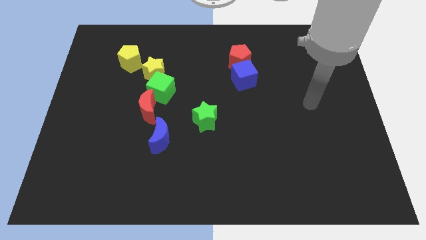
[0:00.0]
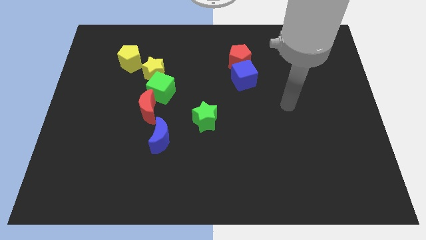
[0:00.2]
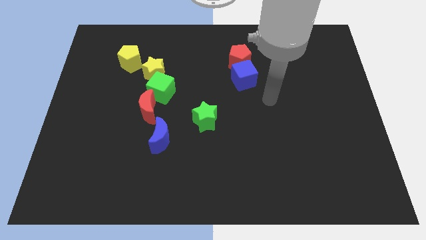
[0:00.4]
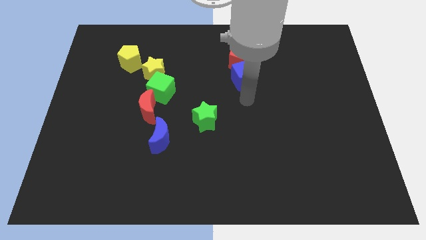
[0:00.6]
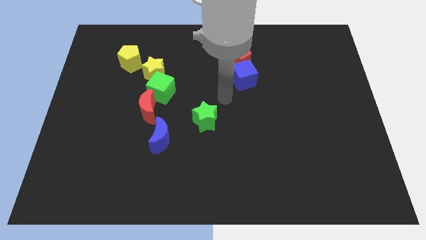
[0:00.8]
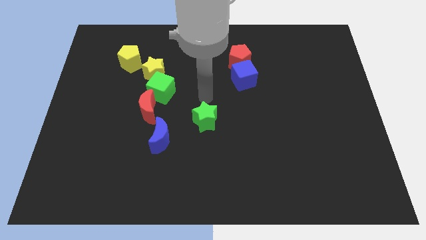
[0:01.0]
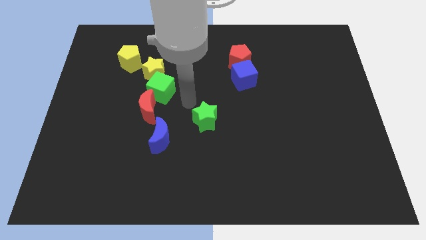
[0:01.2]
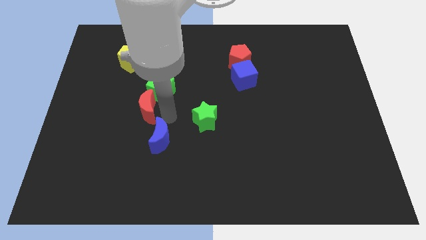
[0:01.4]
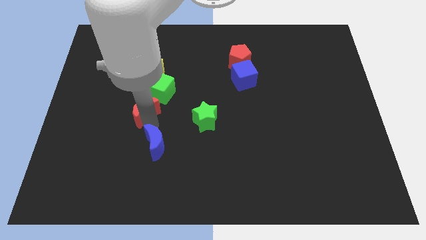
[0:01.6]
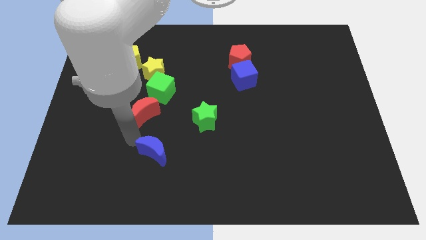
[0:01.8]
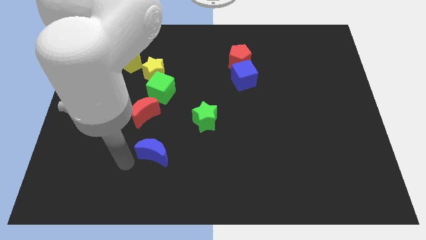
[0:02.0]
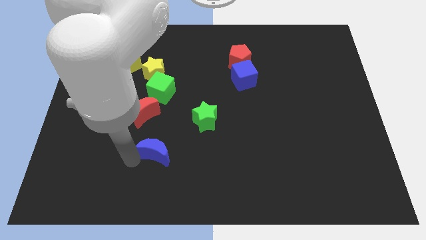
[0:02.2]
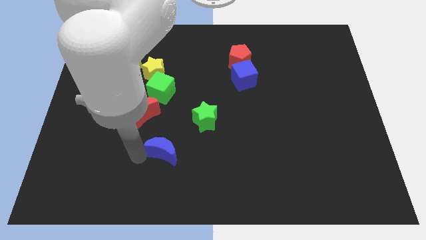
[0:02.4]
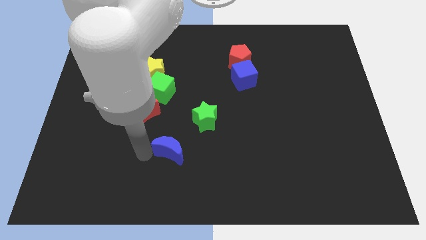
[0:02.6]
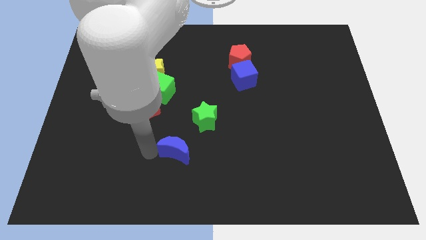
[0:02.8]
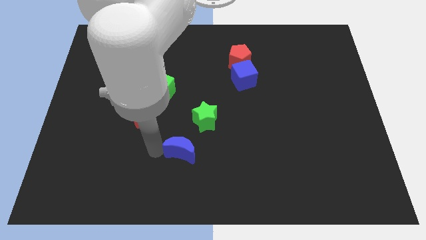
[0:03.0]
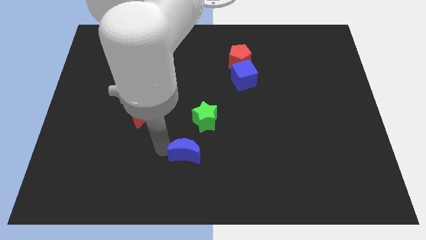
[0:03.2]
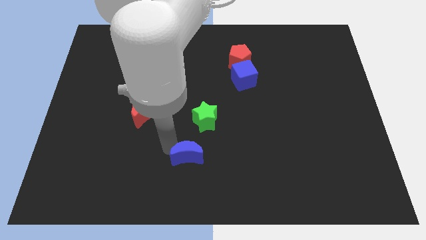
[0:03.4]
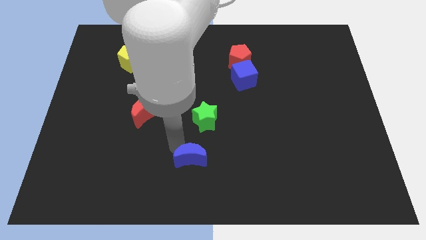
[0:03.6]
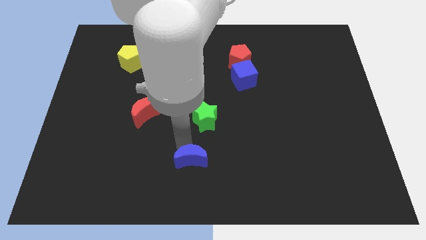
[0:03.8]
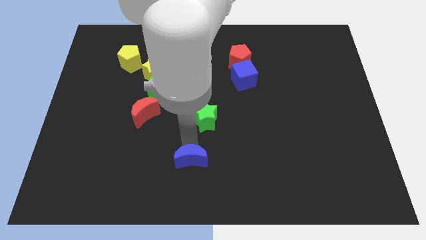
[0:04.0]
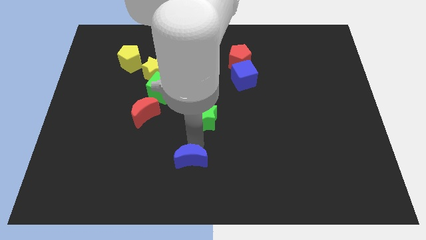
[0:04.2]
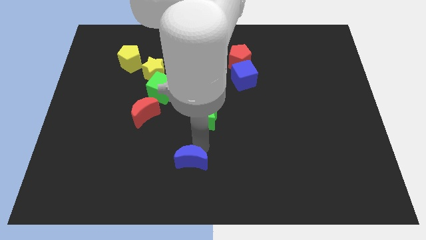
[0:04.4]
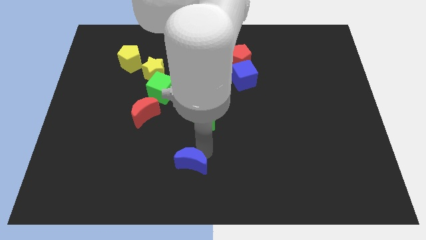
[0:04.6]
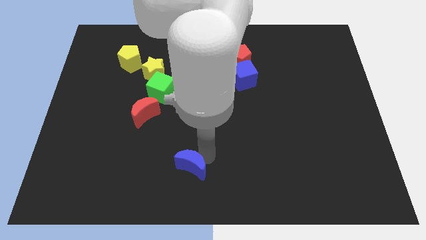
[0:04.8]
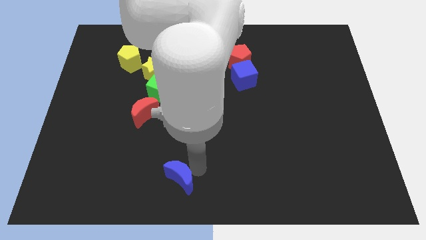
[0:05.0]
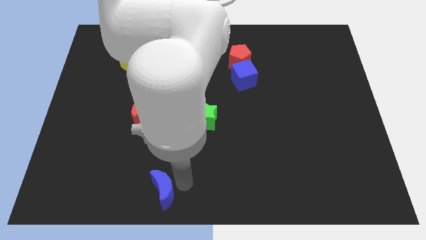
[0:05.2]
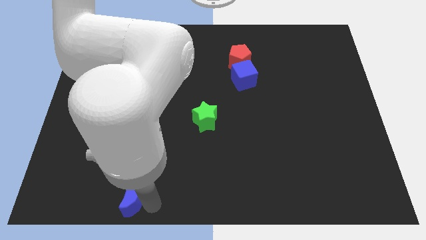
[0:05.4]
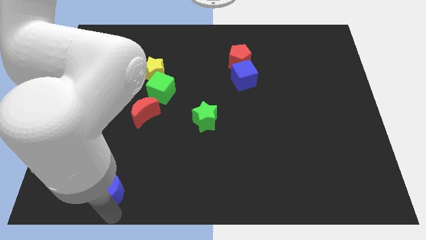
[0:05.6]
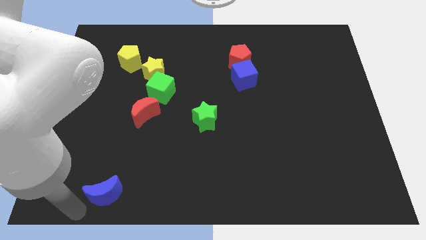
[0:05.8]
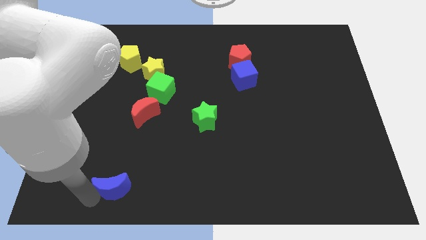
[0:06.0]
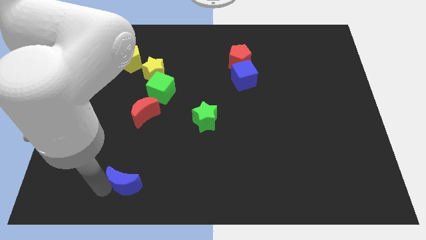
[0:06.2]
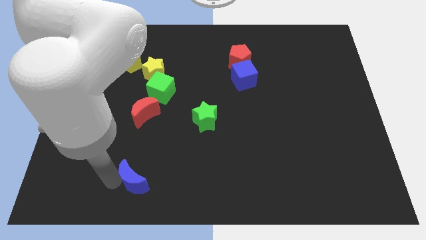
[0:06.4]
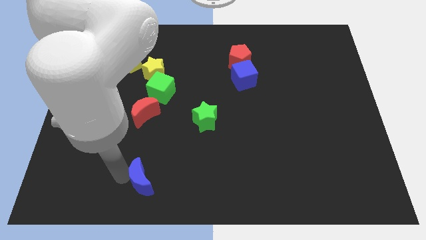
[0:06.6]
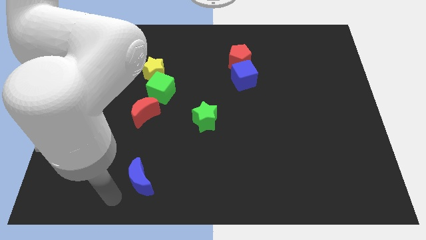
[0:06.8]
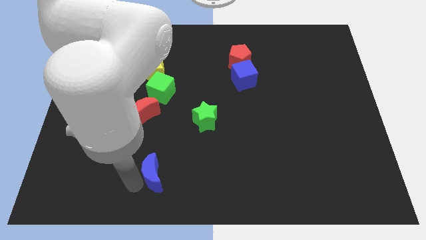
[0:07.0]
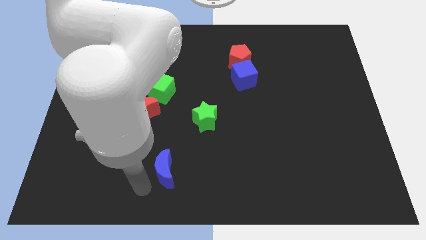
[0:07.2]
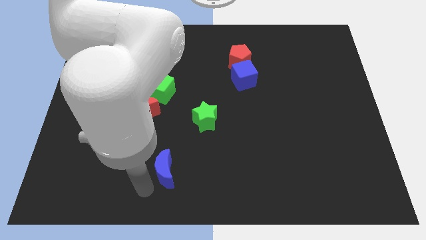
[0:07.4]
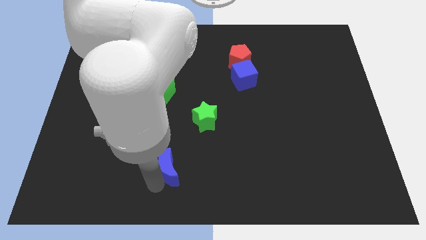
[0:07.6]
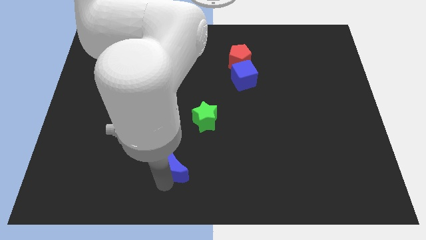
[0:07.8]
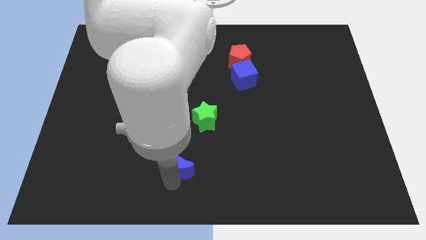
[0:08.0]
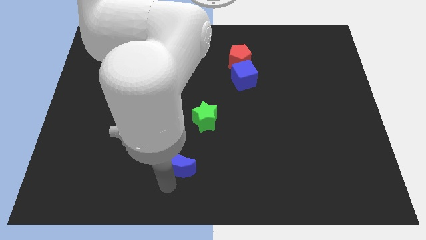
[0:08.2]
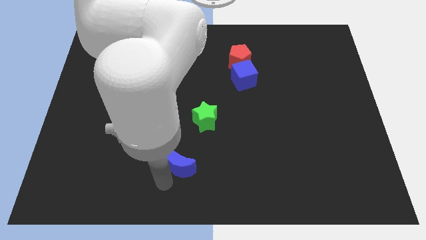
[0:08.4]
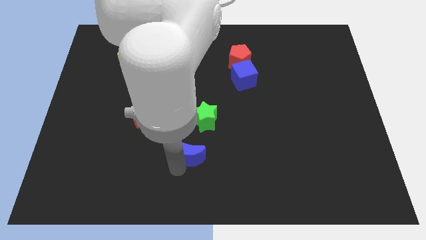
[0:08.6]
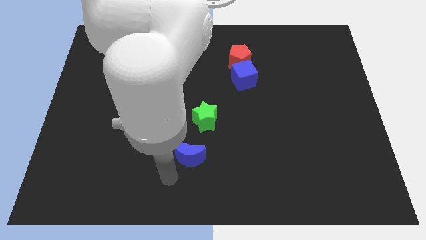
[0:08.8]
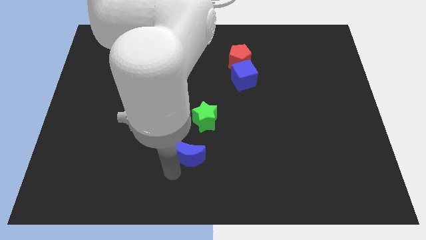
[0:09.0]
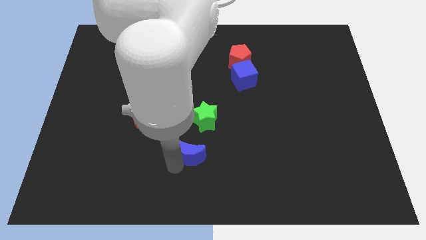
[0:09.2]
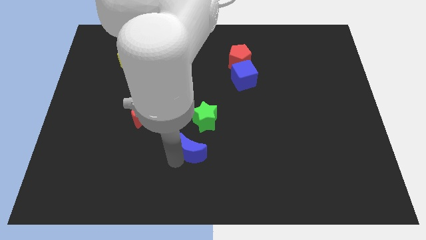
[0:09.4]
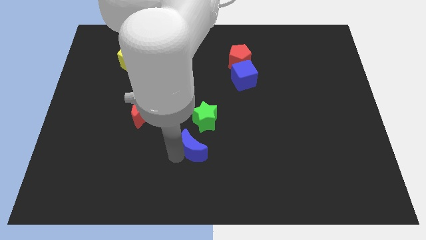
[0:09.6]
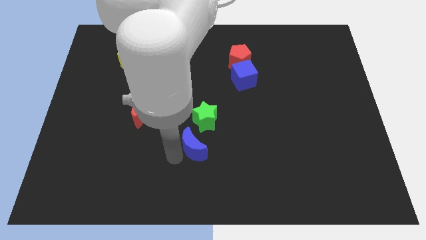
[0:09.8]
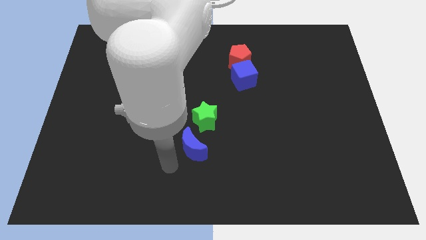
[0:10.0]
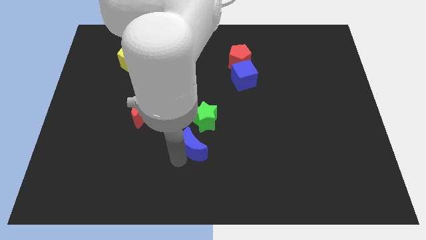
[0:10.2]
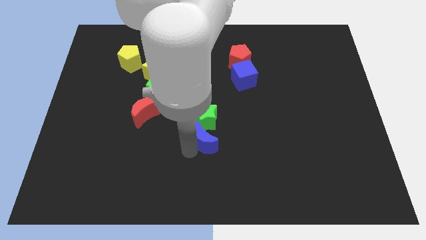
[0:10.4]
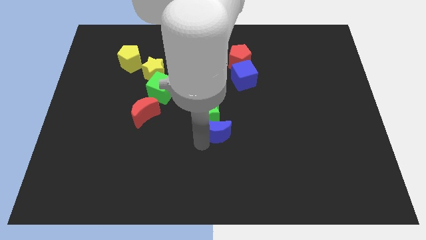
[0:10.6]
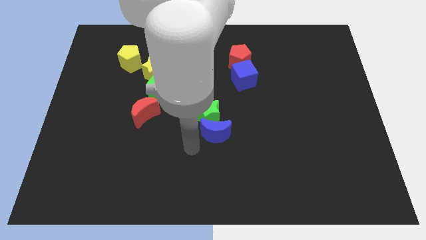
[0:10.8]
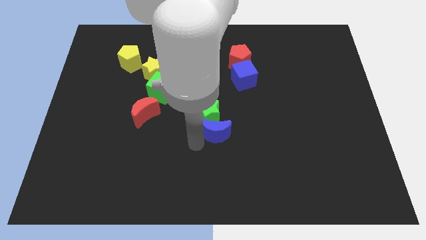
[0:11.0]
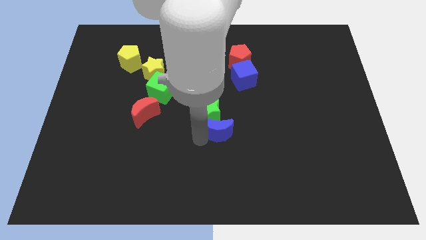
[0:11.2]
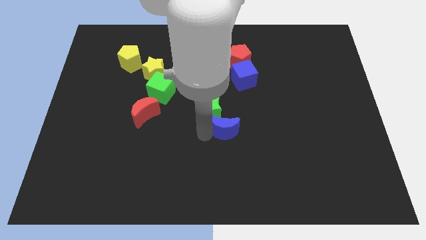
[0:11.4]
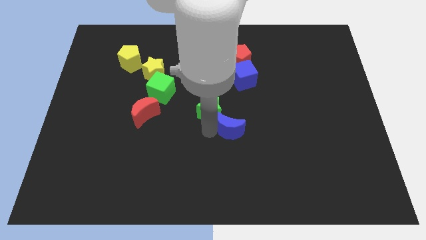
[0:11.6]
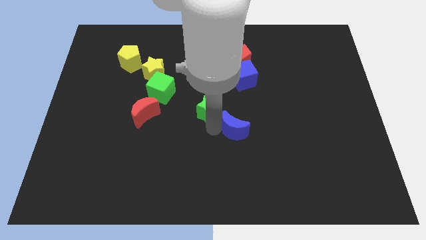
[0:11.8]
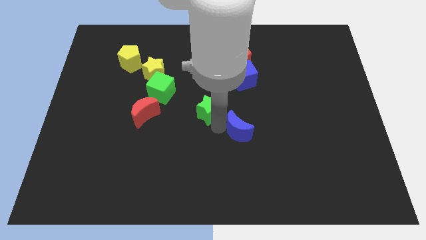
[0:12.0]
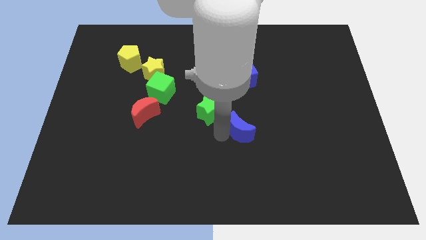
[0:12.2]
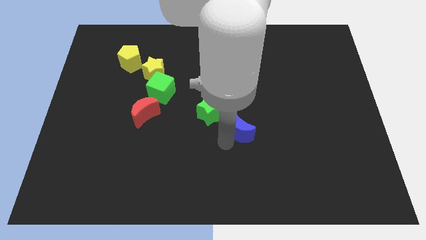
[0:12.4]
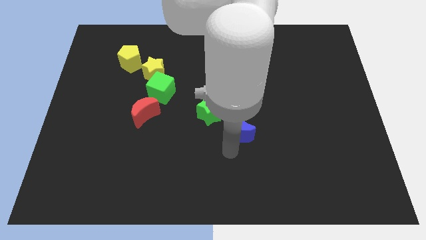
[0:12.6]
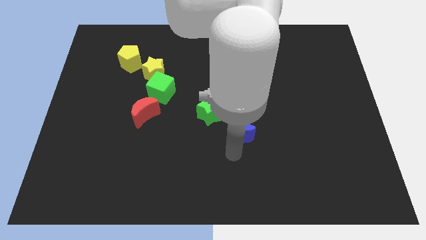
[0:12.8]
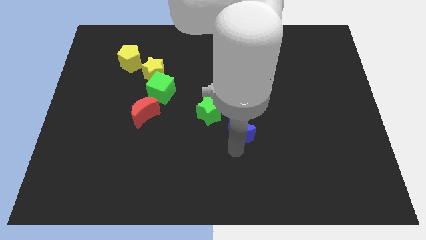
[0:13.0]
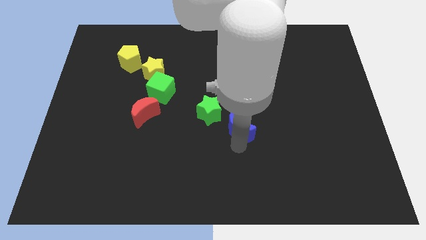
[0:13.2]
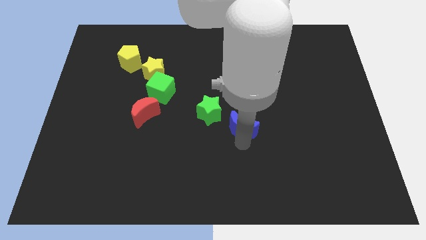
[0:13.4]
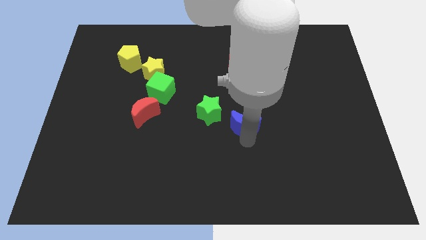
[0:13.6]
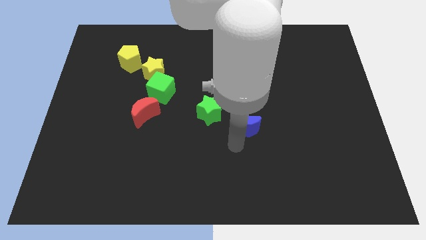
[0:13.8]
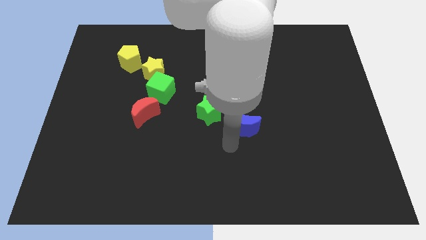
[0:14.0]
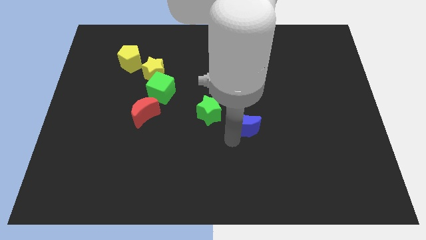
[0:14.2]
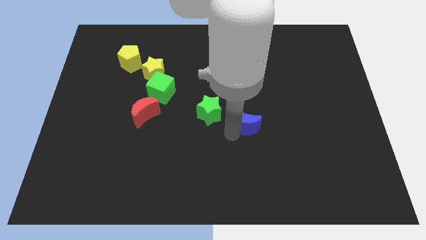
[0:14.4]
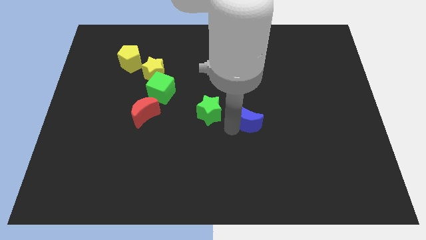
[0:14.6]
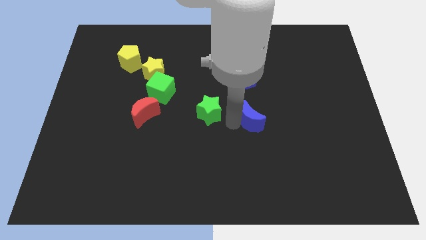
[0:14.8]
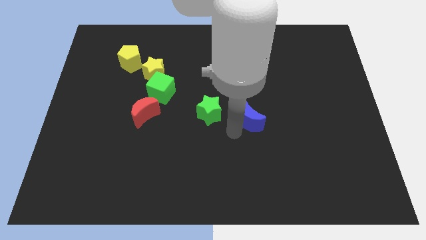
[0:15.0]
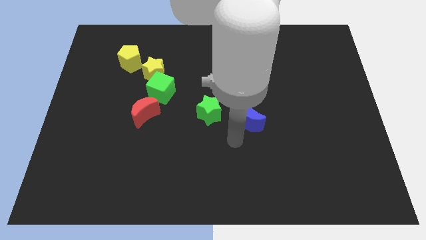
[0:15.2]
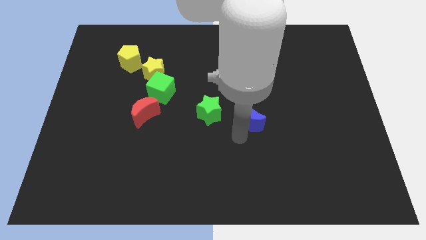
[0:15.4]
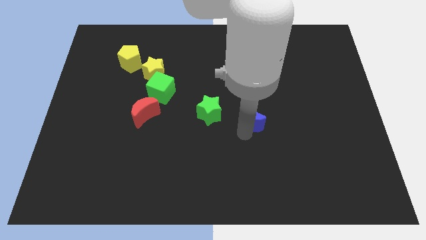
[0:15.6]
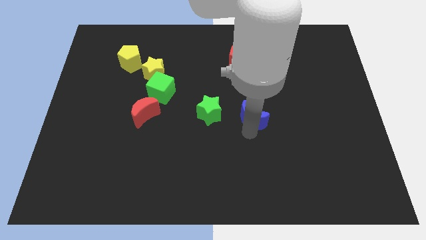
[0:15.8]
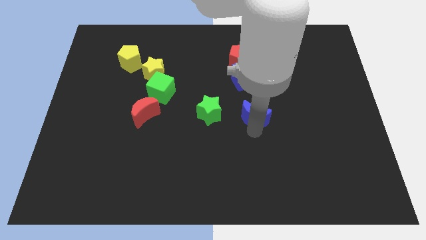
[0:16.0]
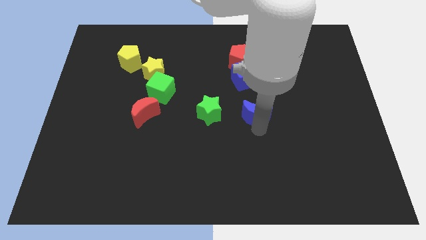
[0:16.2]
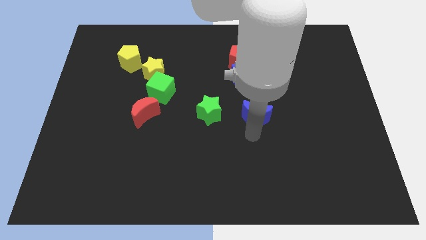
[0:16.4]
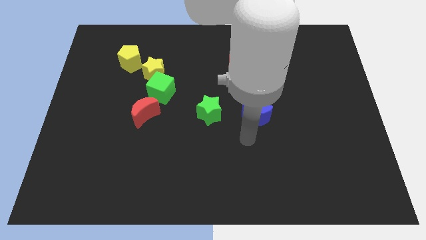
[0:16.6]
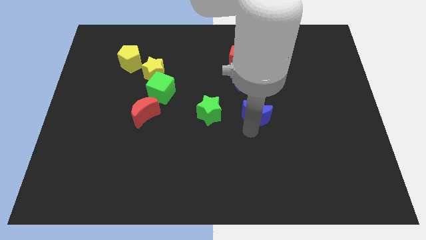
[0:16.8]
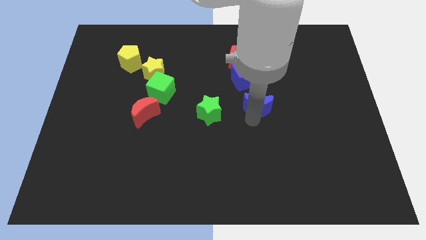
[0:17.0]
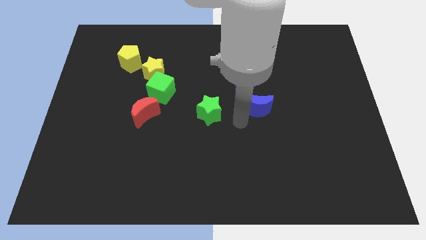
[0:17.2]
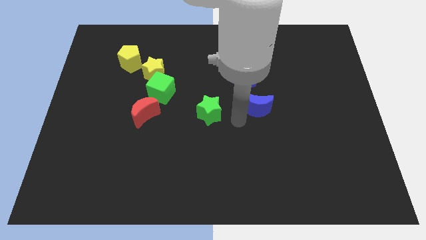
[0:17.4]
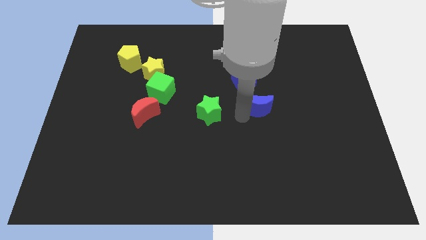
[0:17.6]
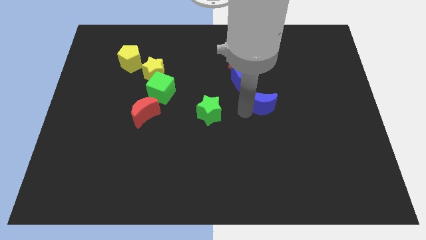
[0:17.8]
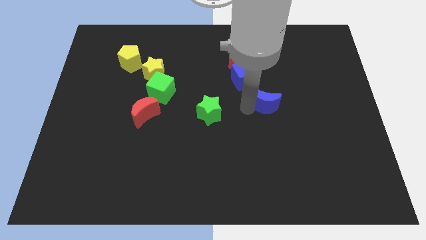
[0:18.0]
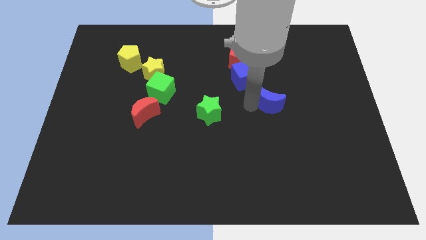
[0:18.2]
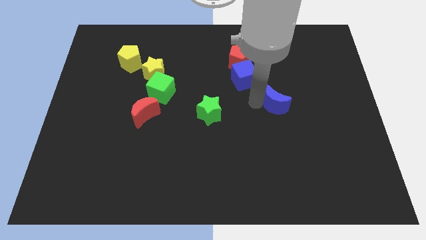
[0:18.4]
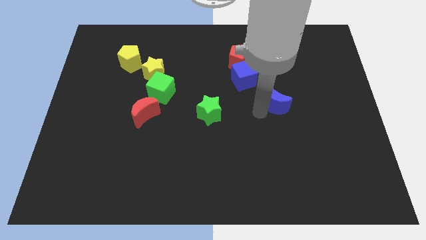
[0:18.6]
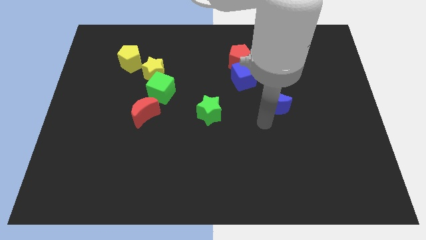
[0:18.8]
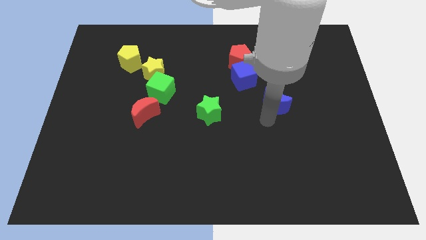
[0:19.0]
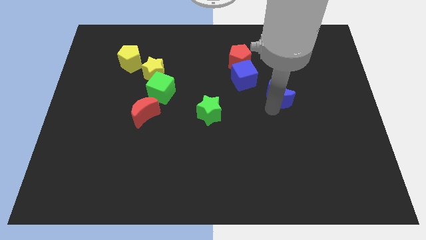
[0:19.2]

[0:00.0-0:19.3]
slide the blue moon up and right diagonally
